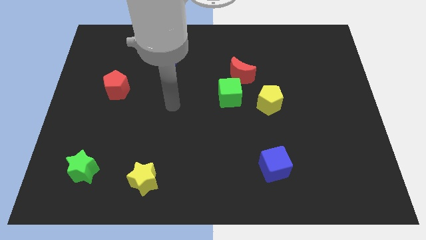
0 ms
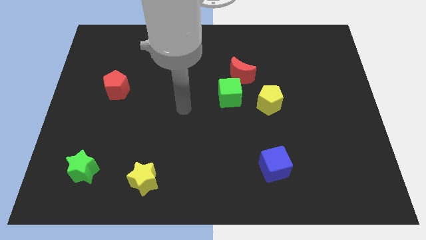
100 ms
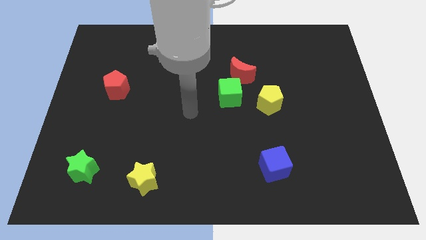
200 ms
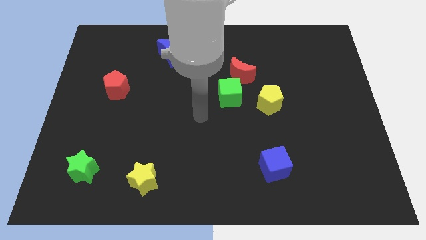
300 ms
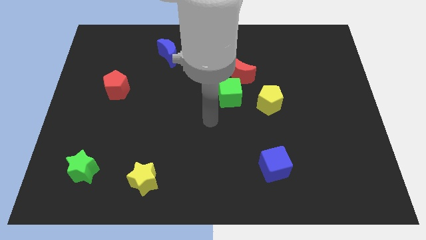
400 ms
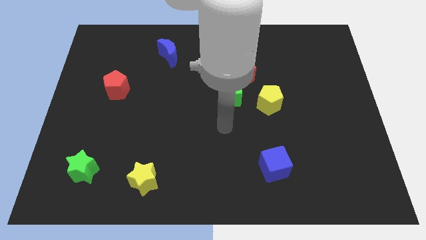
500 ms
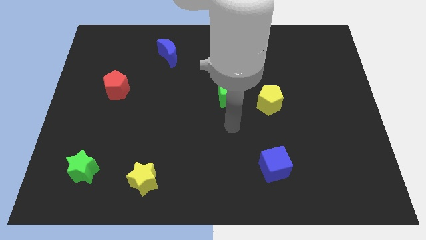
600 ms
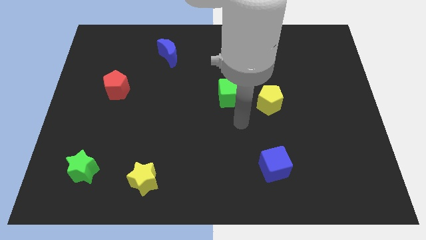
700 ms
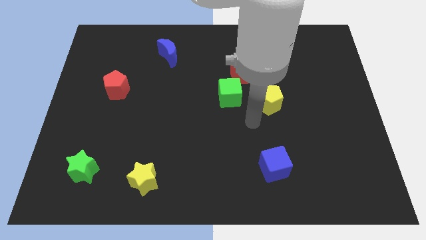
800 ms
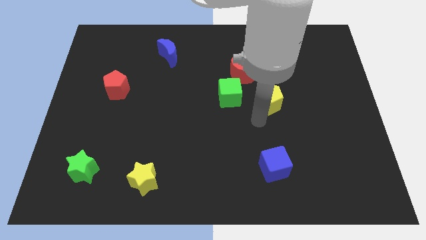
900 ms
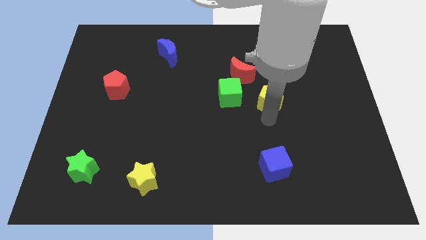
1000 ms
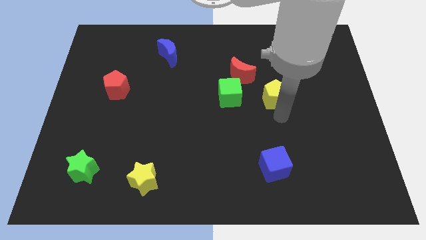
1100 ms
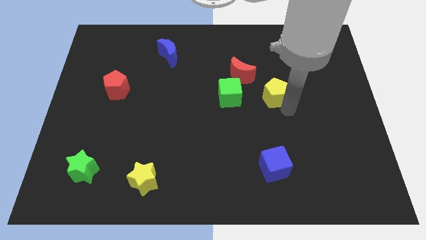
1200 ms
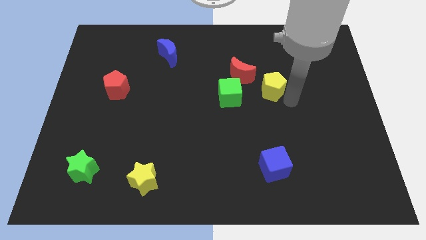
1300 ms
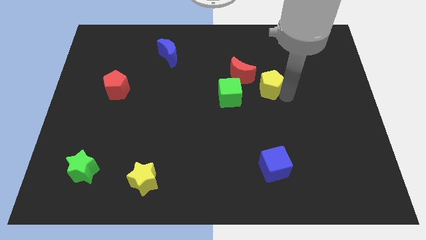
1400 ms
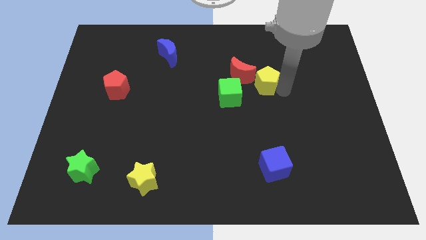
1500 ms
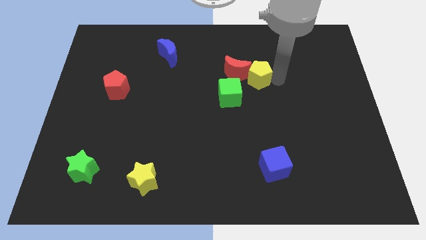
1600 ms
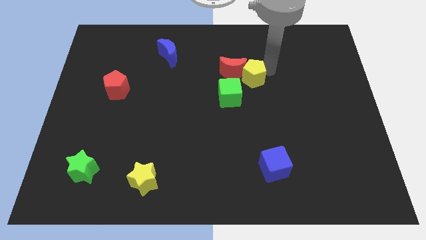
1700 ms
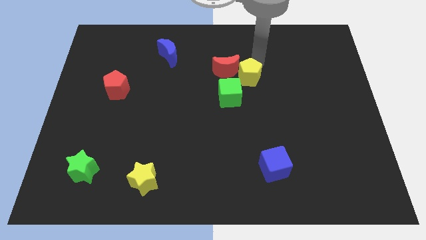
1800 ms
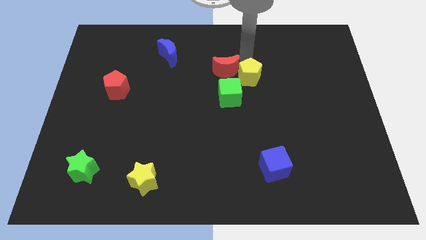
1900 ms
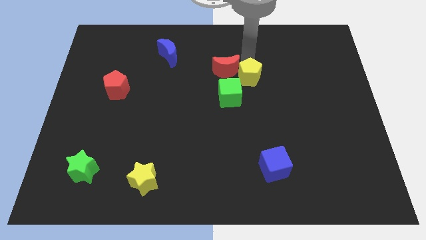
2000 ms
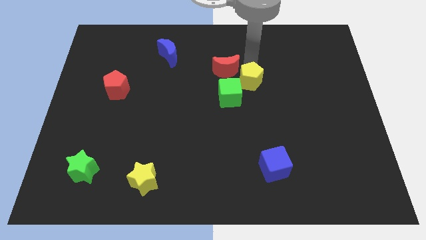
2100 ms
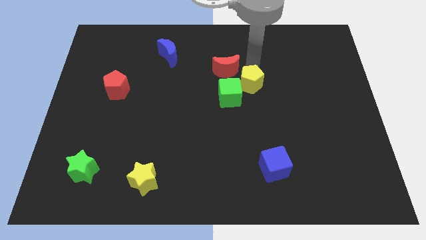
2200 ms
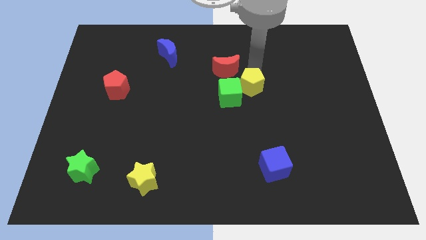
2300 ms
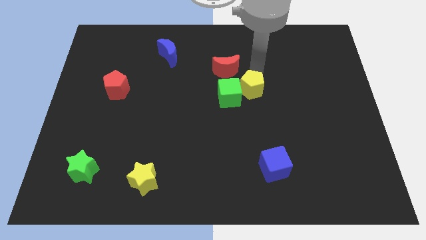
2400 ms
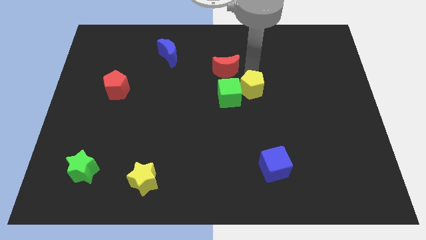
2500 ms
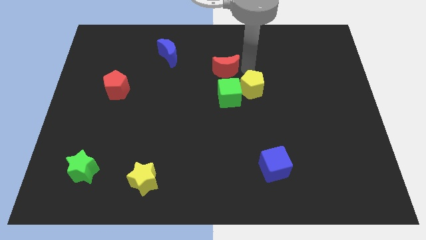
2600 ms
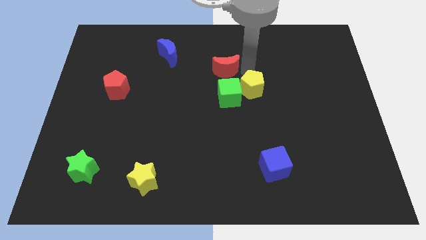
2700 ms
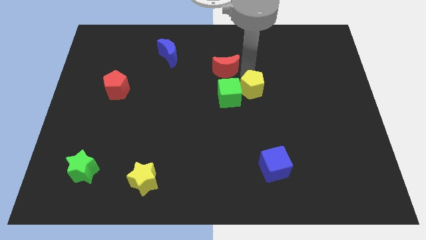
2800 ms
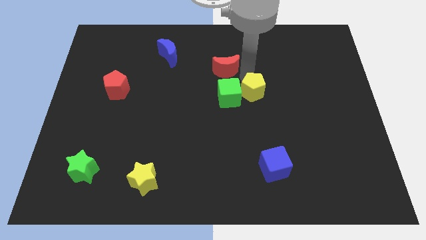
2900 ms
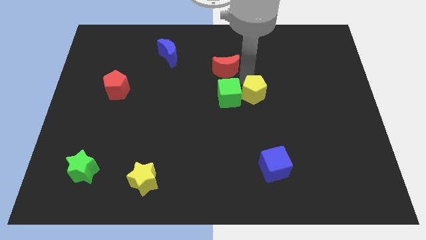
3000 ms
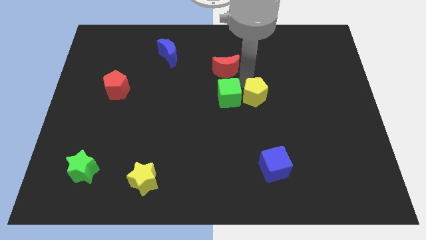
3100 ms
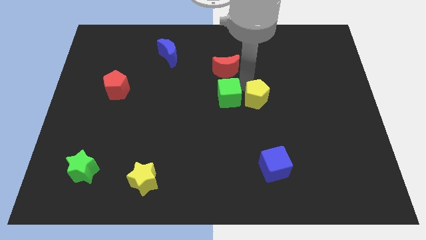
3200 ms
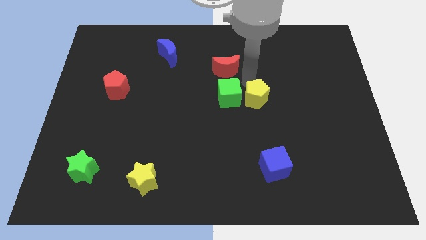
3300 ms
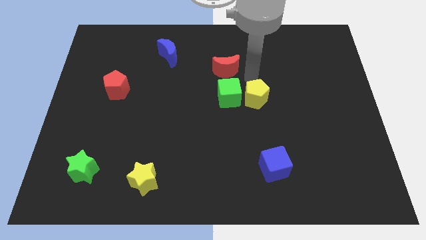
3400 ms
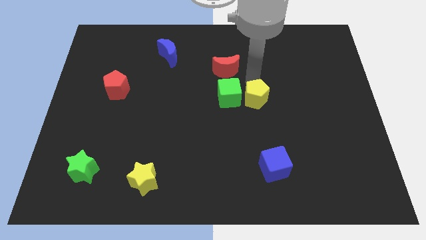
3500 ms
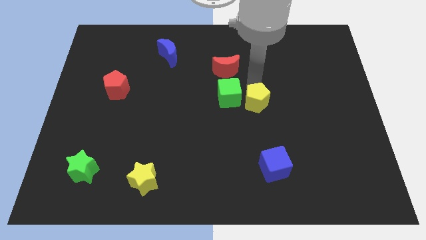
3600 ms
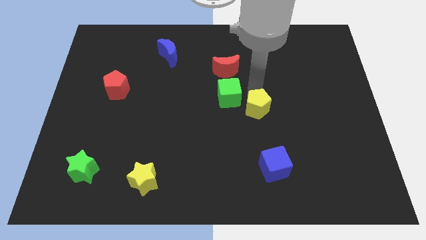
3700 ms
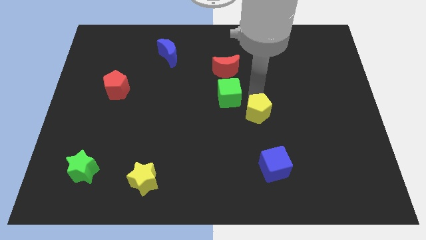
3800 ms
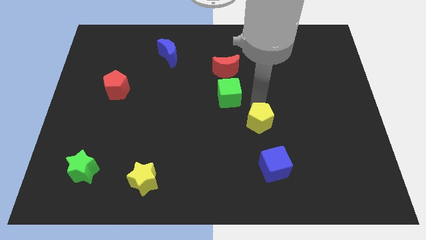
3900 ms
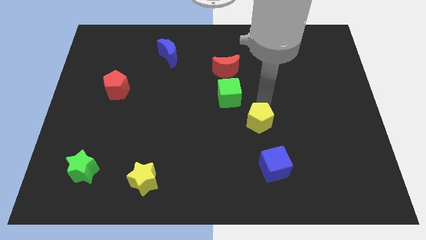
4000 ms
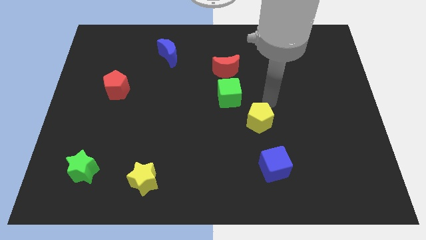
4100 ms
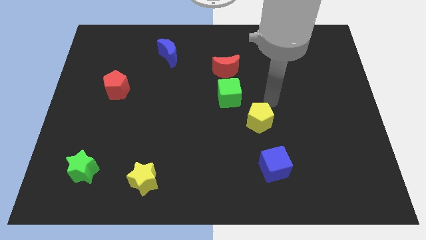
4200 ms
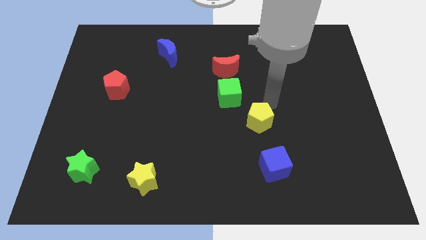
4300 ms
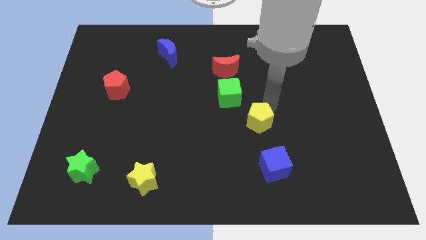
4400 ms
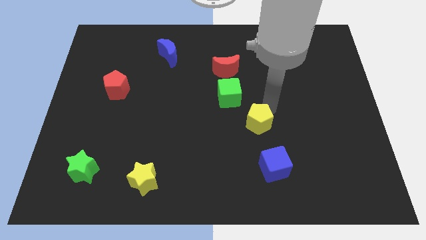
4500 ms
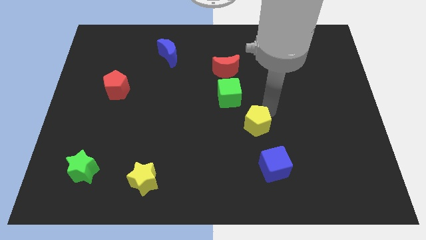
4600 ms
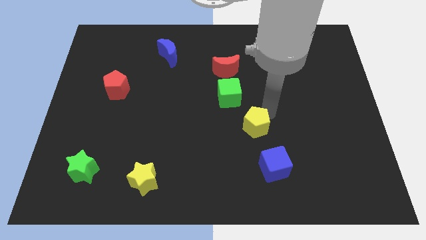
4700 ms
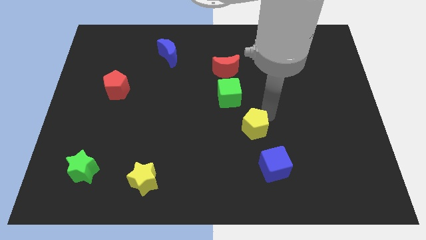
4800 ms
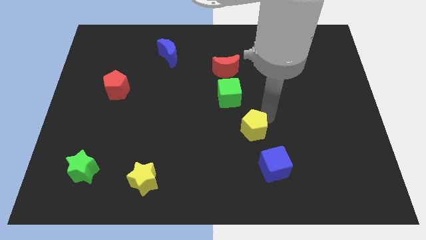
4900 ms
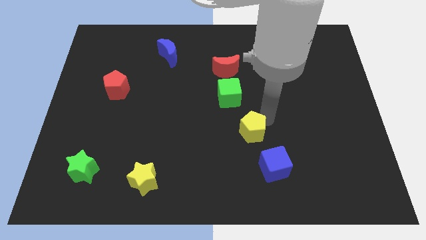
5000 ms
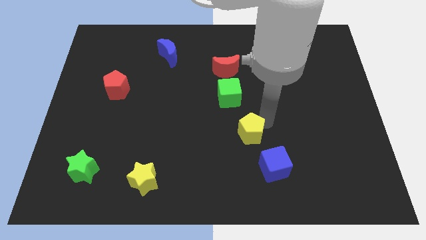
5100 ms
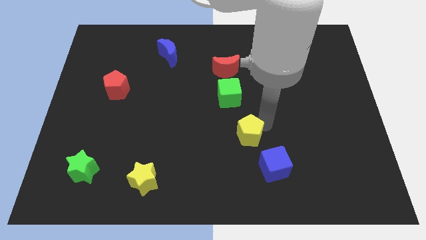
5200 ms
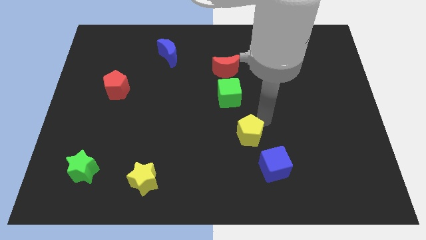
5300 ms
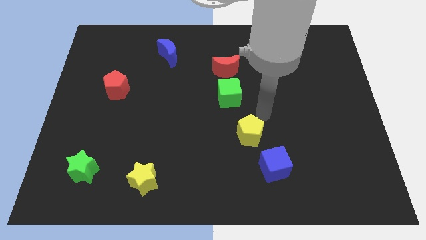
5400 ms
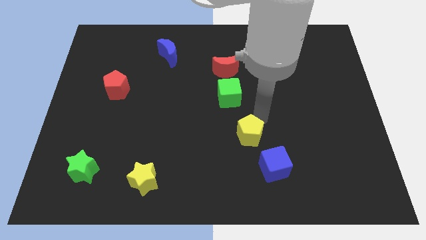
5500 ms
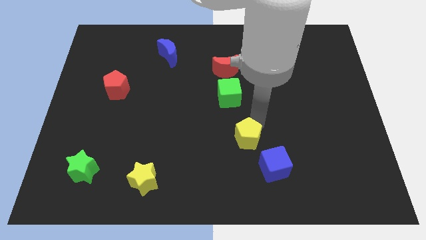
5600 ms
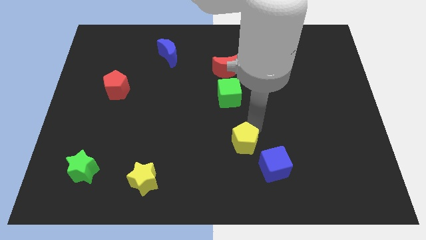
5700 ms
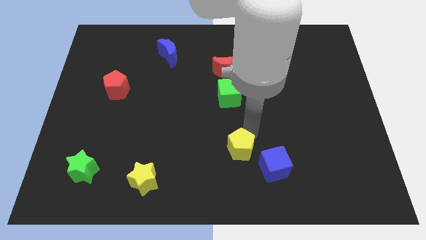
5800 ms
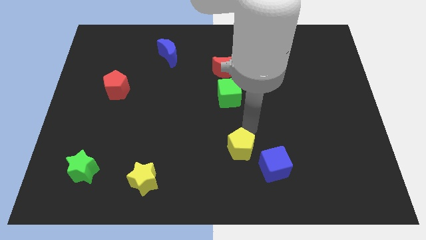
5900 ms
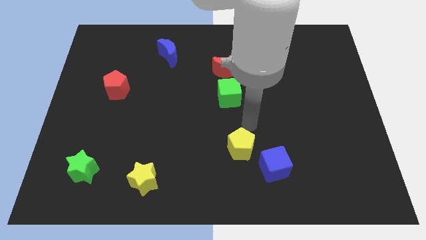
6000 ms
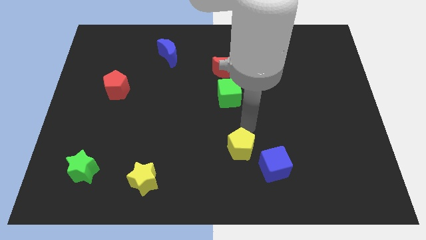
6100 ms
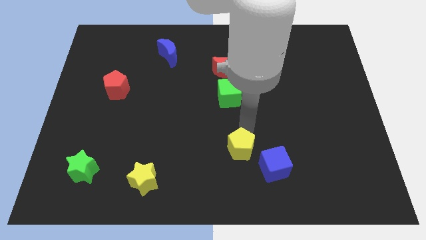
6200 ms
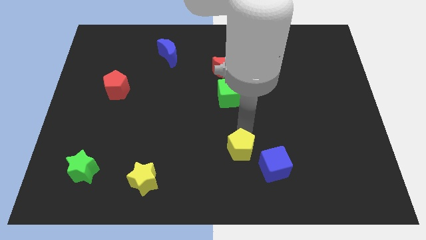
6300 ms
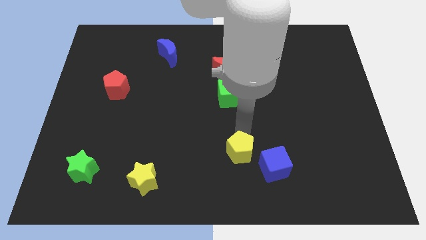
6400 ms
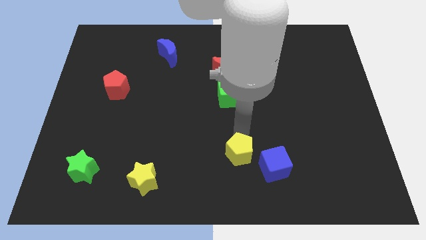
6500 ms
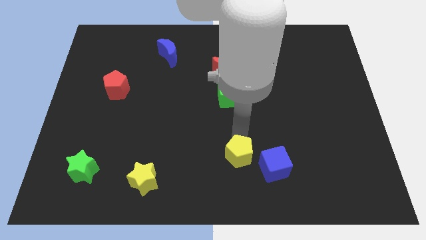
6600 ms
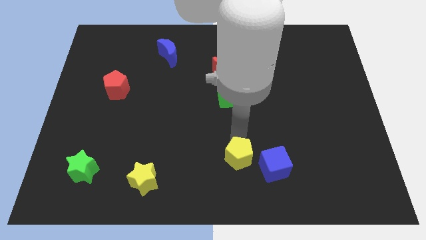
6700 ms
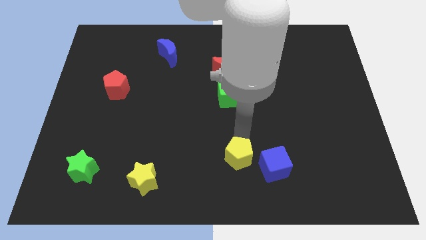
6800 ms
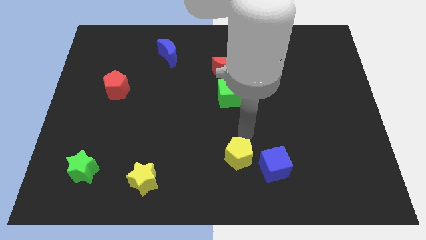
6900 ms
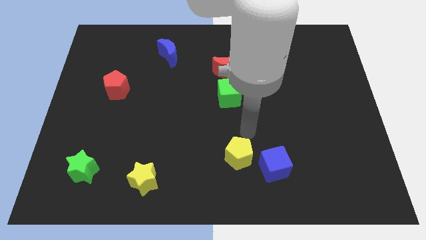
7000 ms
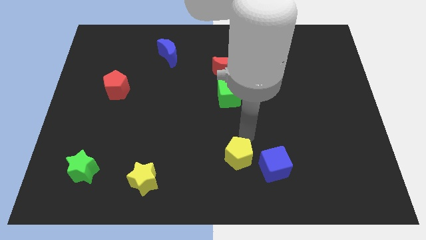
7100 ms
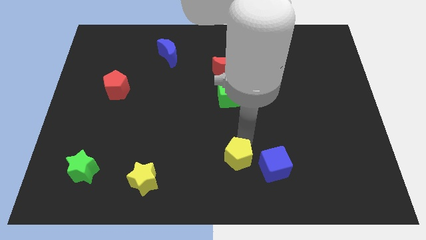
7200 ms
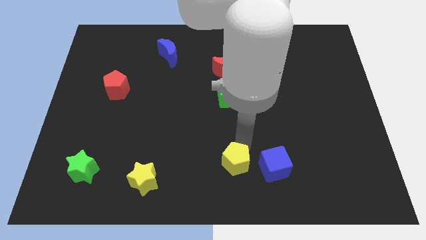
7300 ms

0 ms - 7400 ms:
put the yellow pentagon to the bottom
